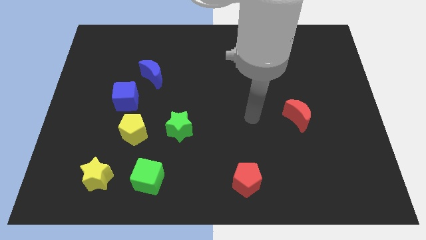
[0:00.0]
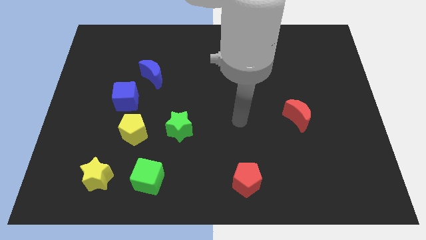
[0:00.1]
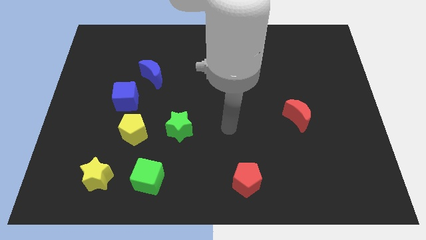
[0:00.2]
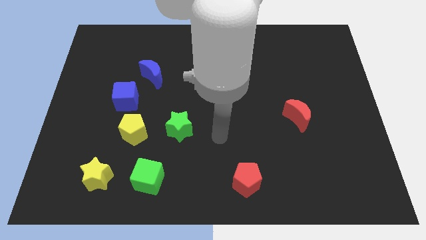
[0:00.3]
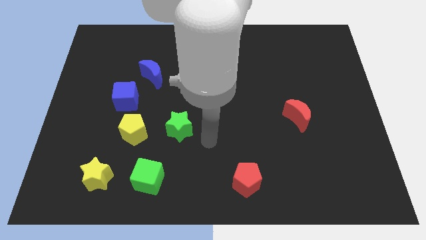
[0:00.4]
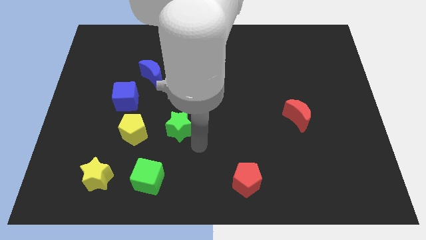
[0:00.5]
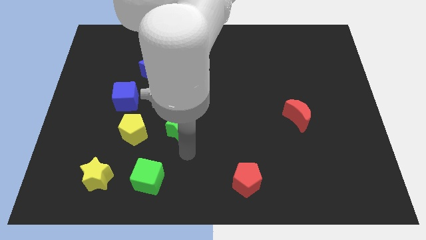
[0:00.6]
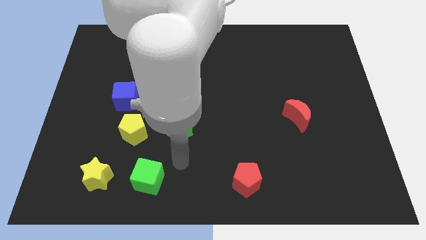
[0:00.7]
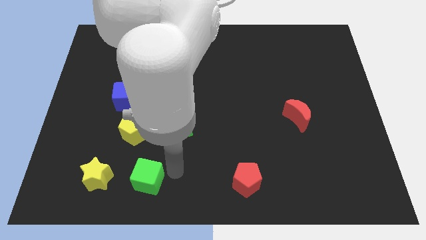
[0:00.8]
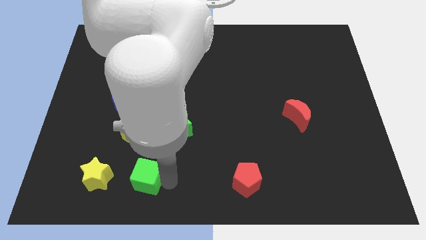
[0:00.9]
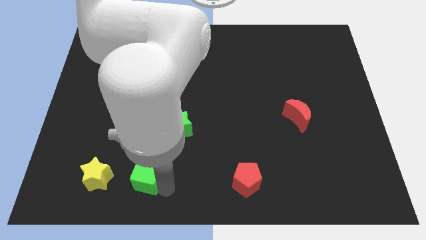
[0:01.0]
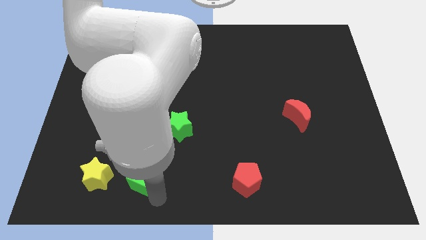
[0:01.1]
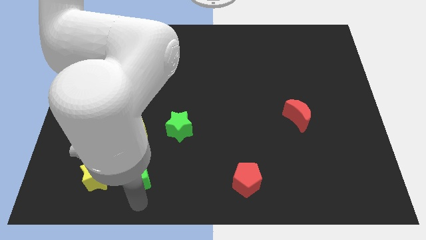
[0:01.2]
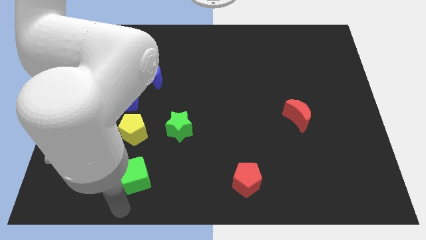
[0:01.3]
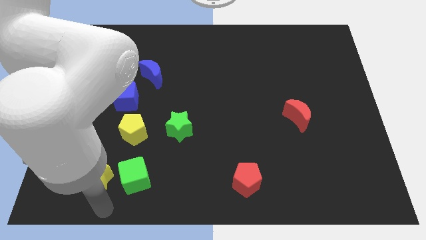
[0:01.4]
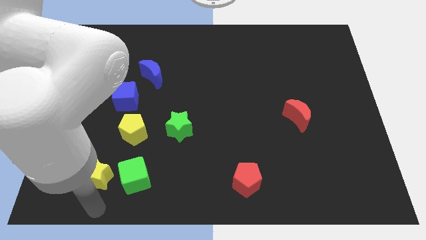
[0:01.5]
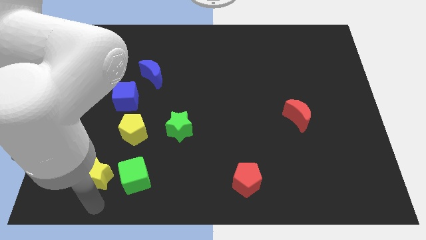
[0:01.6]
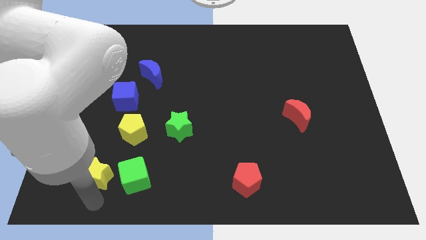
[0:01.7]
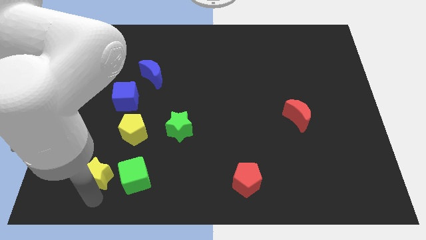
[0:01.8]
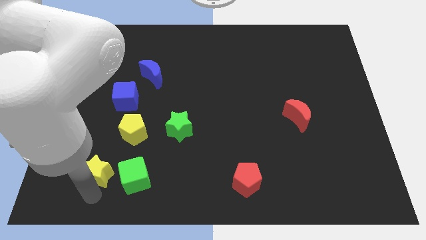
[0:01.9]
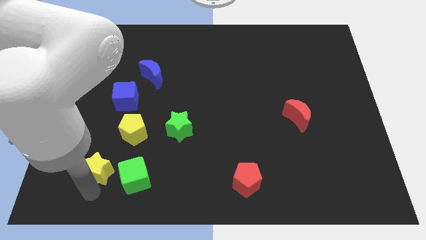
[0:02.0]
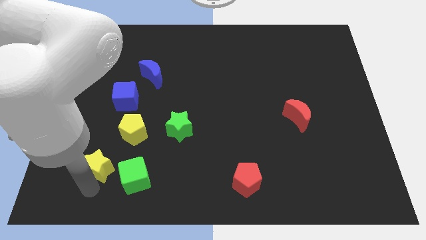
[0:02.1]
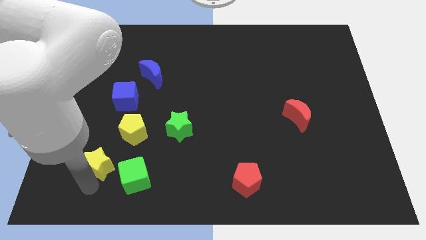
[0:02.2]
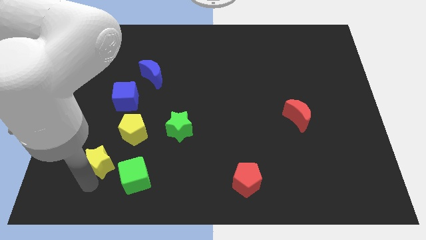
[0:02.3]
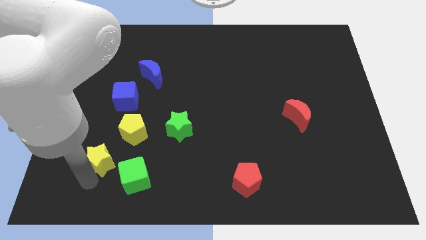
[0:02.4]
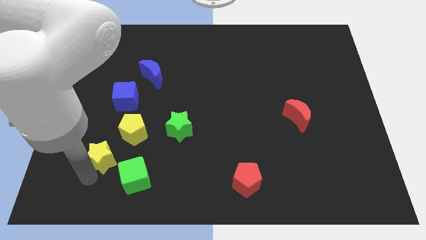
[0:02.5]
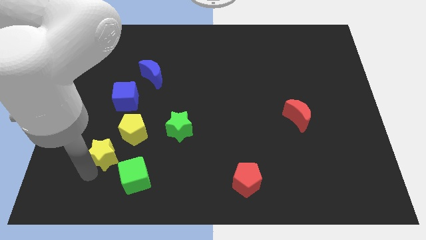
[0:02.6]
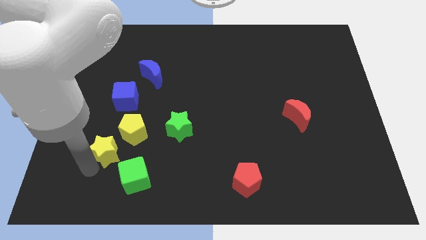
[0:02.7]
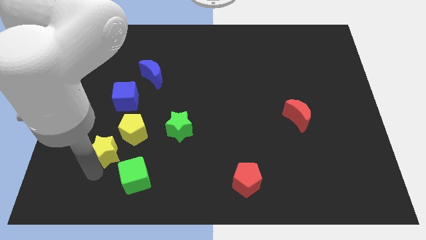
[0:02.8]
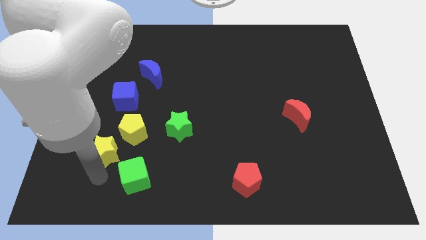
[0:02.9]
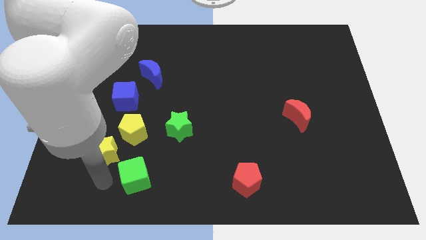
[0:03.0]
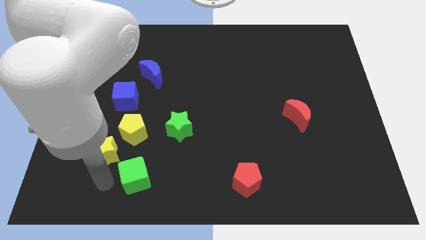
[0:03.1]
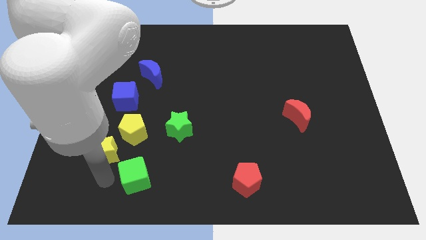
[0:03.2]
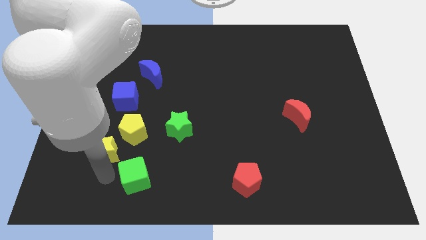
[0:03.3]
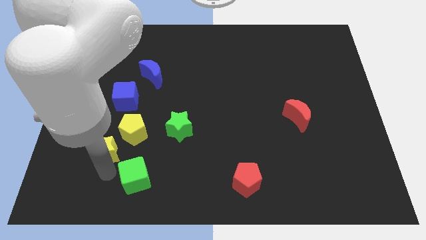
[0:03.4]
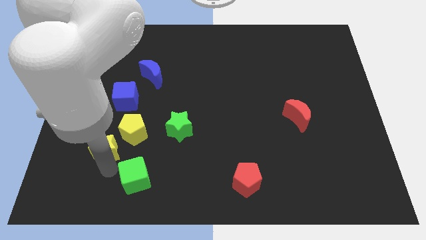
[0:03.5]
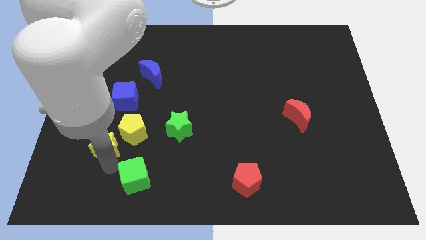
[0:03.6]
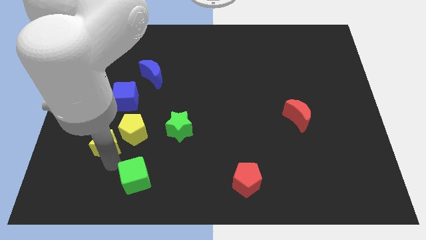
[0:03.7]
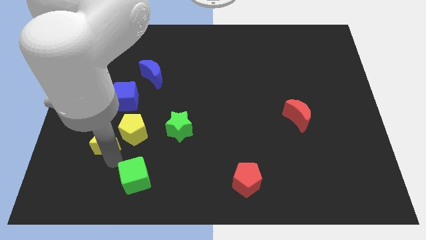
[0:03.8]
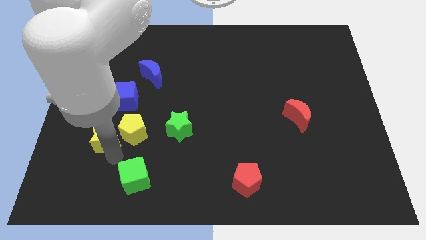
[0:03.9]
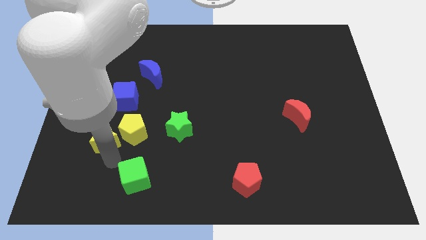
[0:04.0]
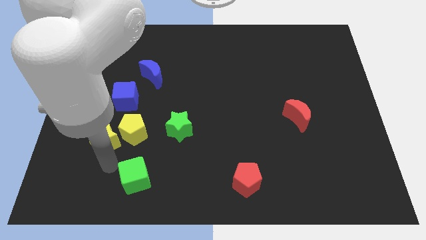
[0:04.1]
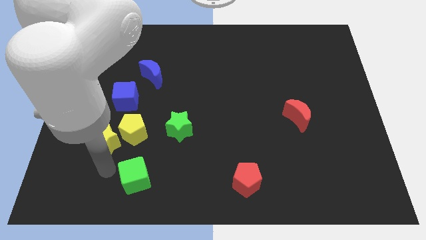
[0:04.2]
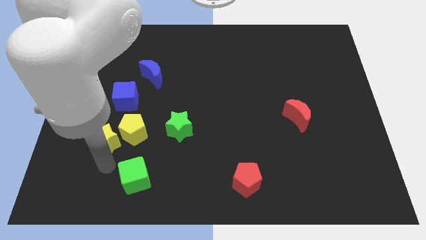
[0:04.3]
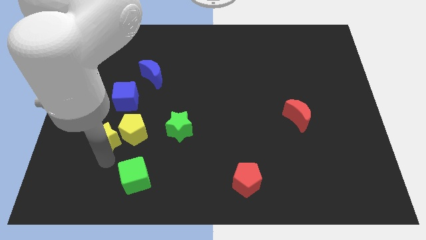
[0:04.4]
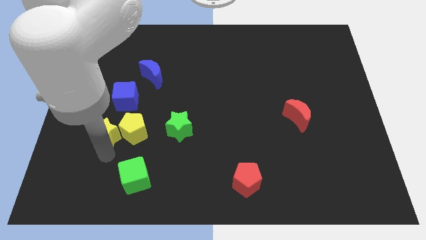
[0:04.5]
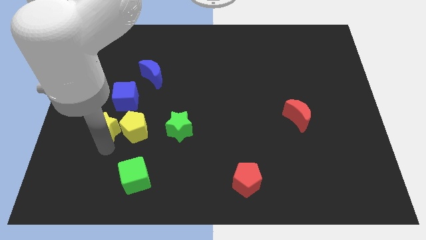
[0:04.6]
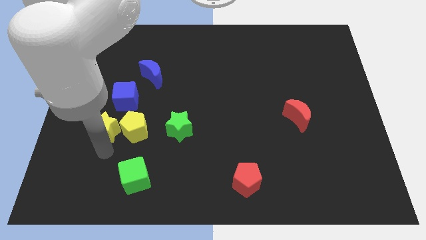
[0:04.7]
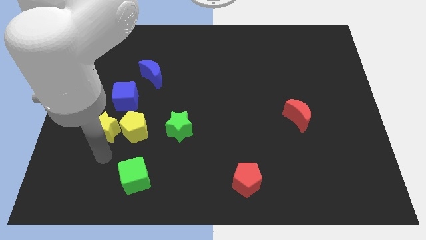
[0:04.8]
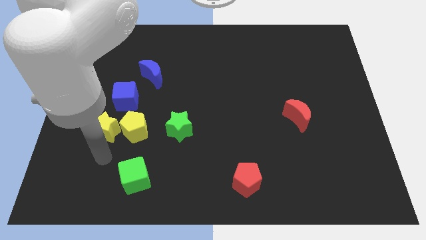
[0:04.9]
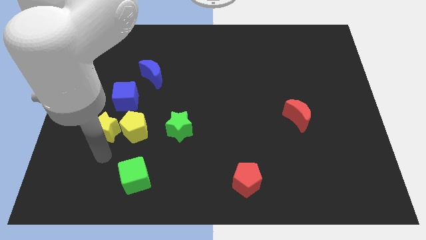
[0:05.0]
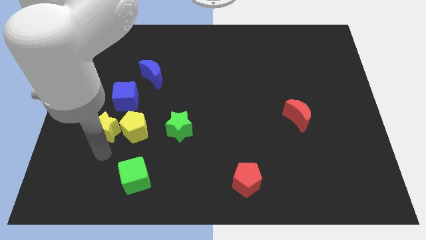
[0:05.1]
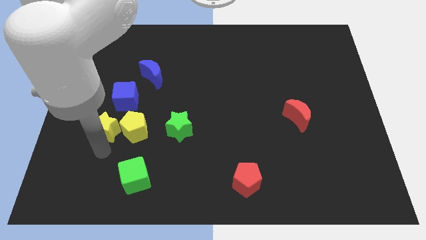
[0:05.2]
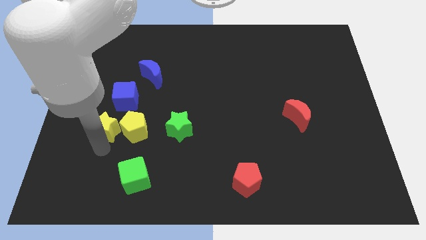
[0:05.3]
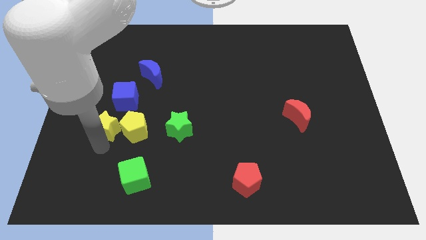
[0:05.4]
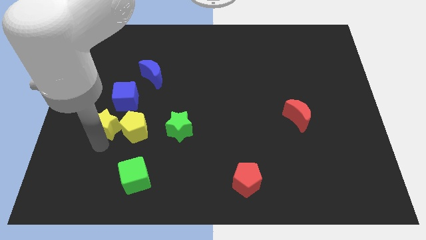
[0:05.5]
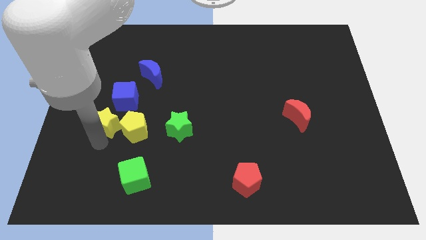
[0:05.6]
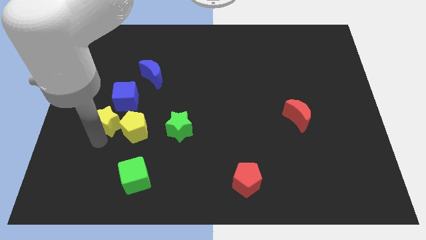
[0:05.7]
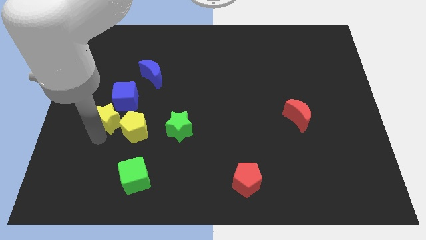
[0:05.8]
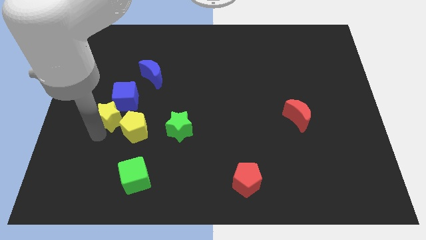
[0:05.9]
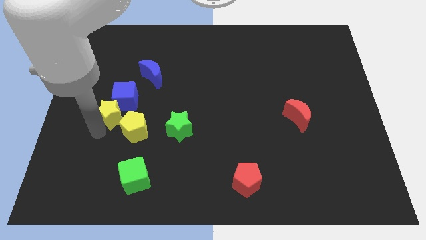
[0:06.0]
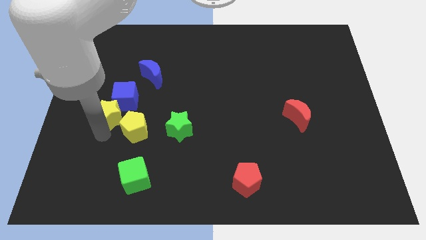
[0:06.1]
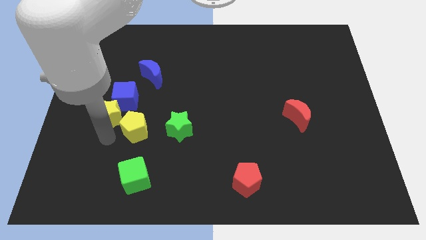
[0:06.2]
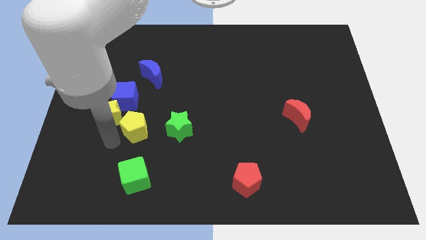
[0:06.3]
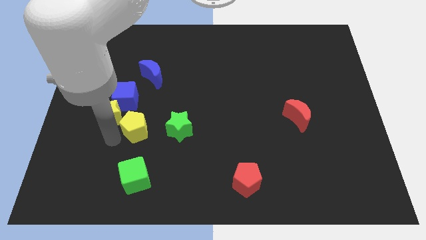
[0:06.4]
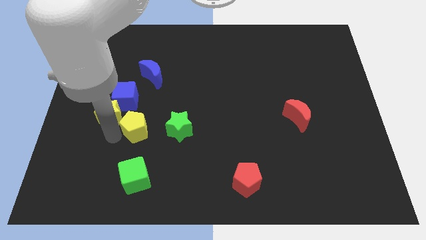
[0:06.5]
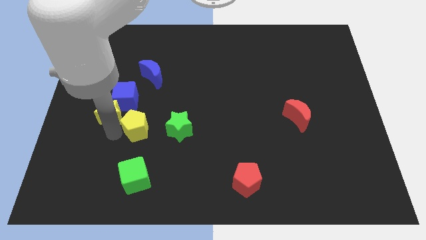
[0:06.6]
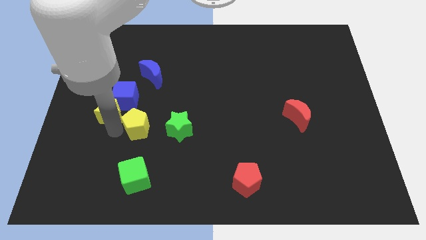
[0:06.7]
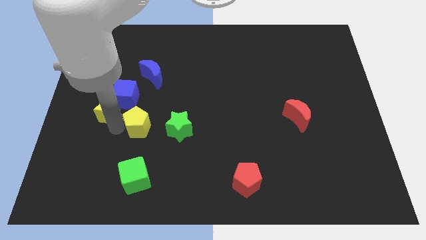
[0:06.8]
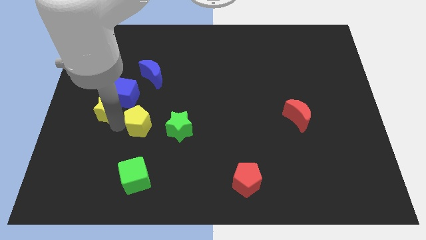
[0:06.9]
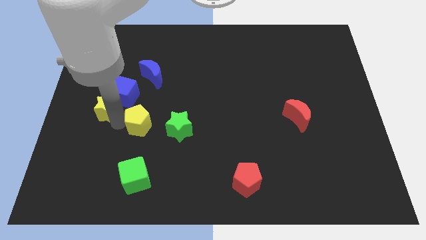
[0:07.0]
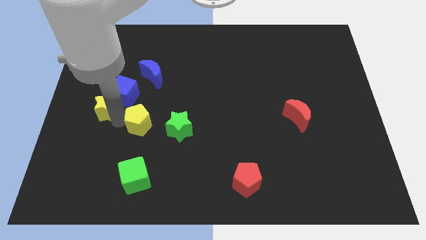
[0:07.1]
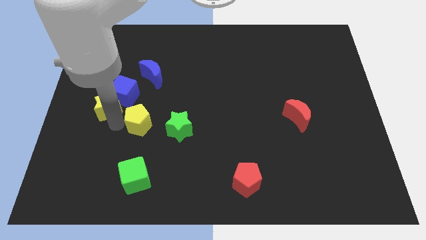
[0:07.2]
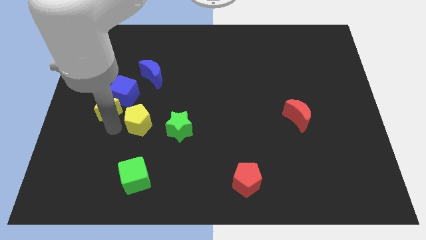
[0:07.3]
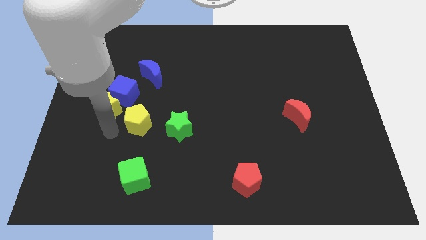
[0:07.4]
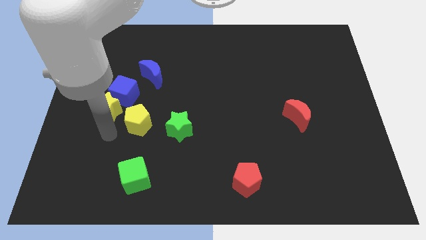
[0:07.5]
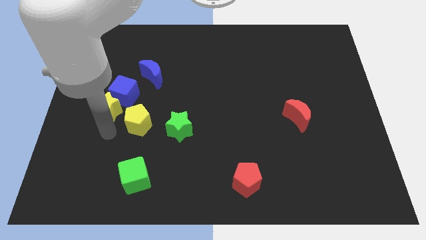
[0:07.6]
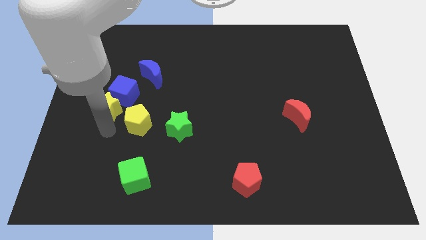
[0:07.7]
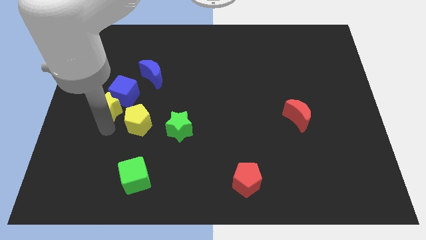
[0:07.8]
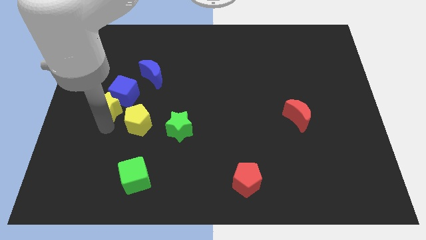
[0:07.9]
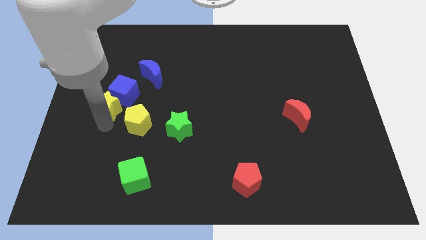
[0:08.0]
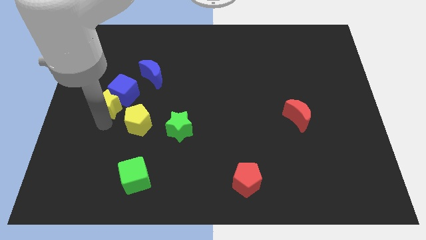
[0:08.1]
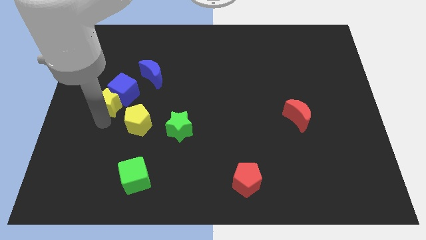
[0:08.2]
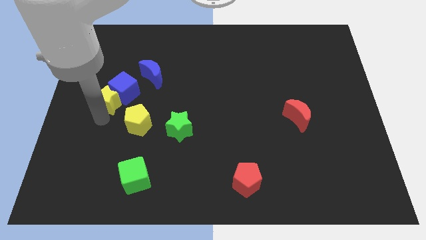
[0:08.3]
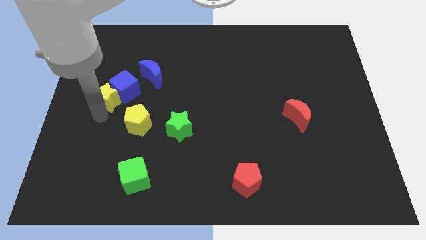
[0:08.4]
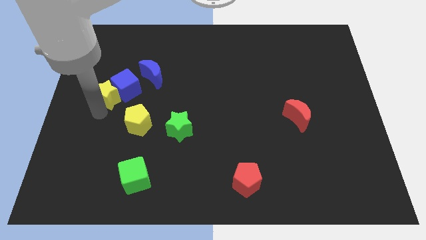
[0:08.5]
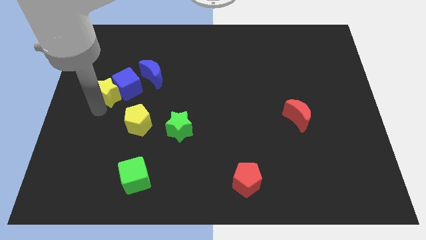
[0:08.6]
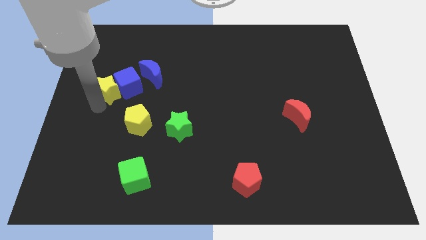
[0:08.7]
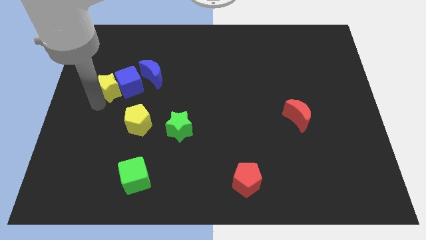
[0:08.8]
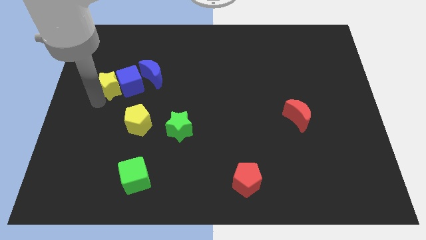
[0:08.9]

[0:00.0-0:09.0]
move the yellow star diagonally up and to the left of the blue cube
